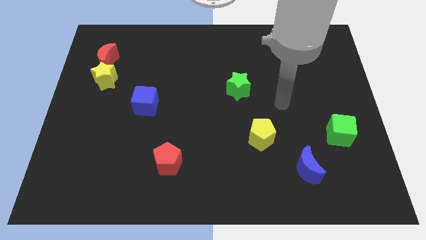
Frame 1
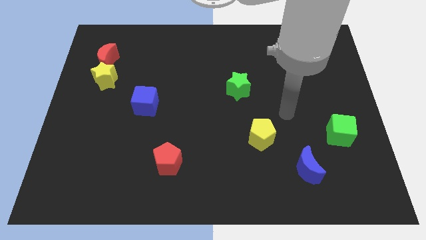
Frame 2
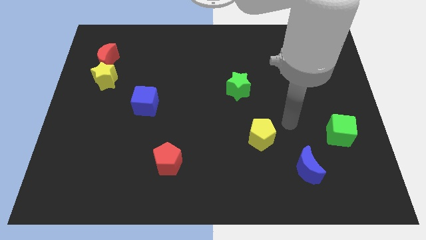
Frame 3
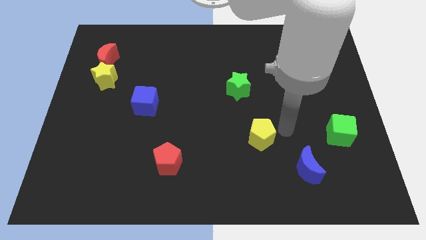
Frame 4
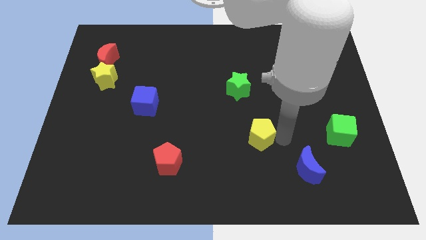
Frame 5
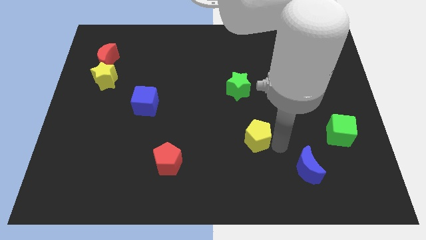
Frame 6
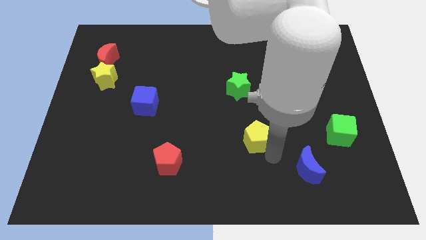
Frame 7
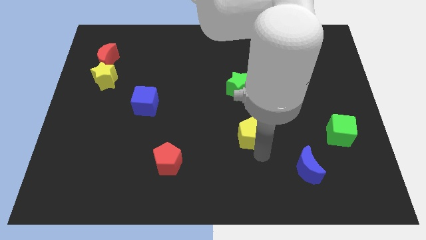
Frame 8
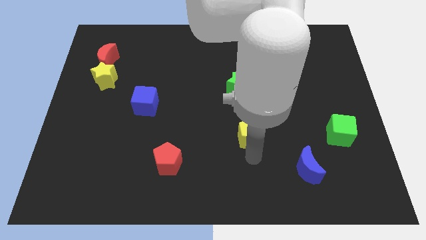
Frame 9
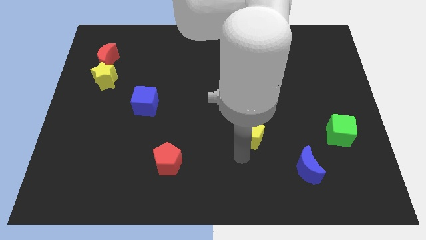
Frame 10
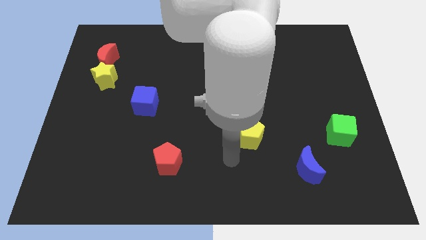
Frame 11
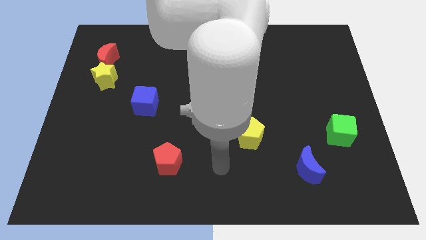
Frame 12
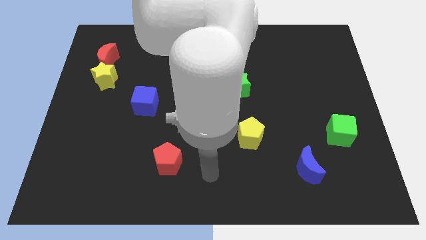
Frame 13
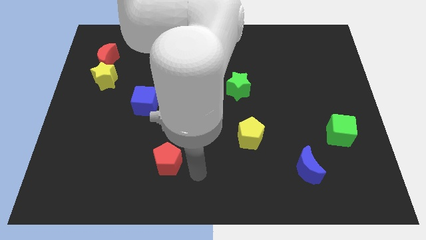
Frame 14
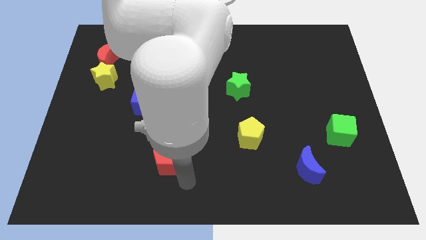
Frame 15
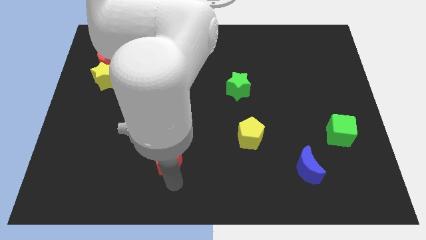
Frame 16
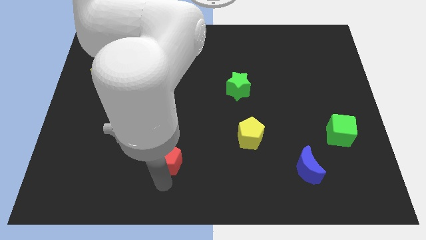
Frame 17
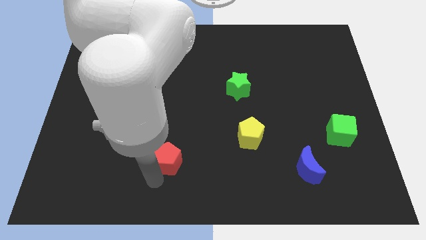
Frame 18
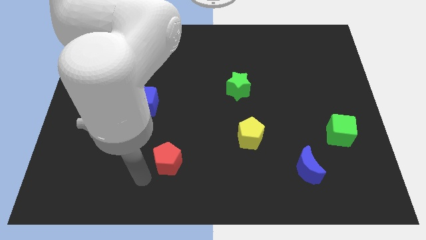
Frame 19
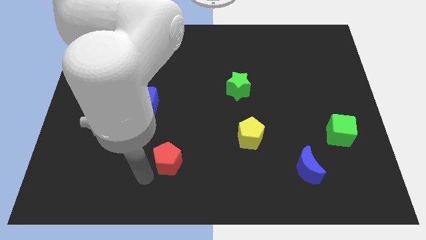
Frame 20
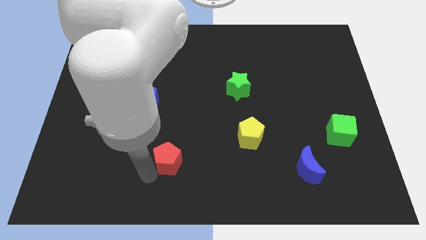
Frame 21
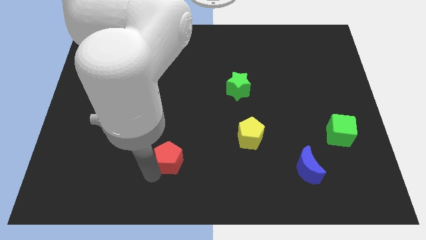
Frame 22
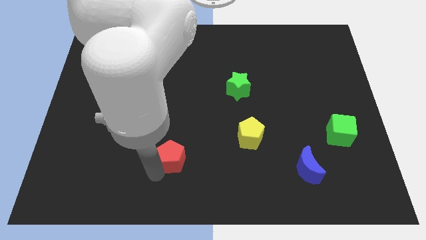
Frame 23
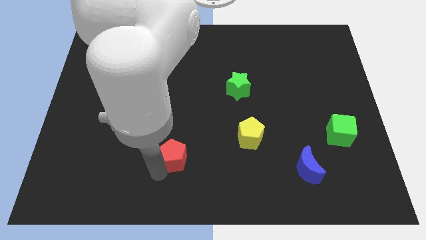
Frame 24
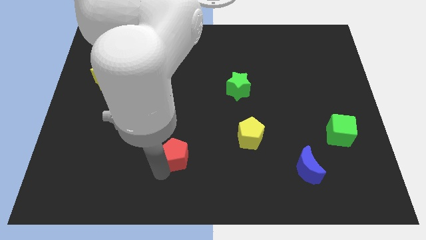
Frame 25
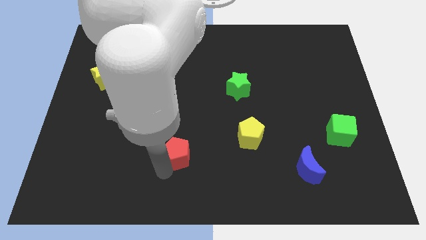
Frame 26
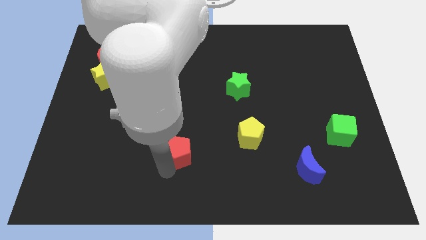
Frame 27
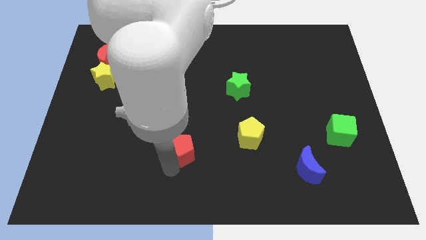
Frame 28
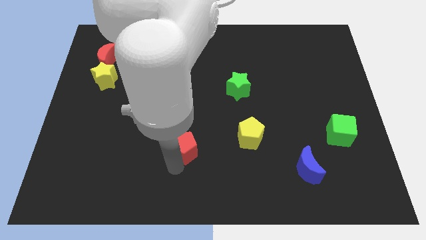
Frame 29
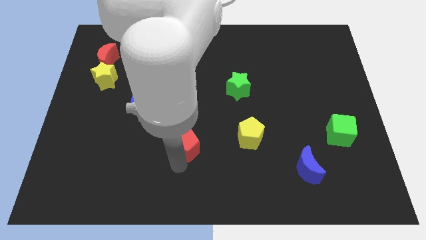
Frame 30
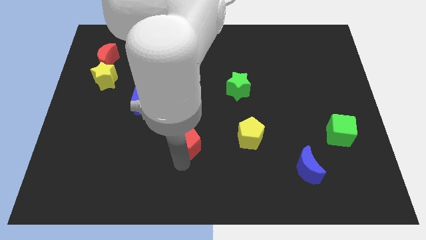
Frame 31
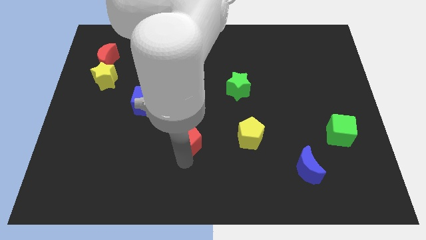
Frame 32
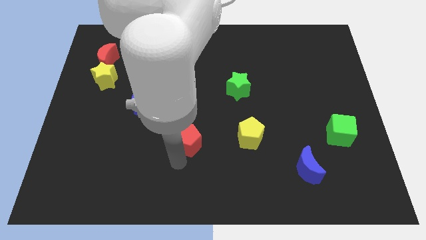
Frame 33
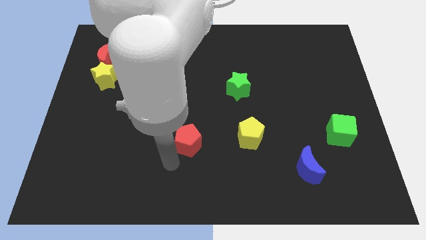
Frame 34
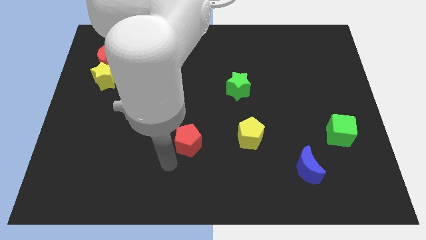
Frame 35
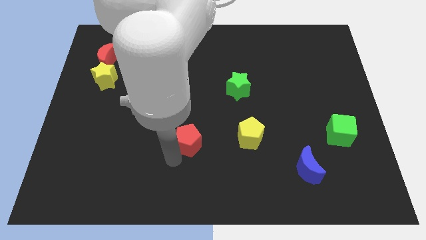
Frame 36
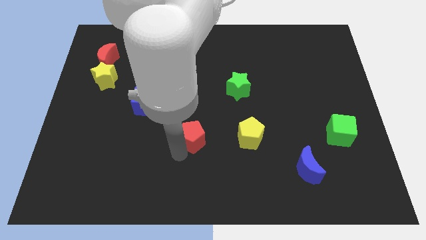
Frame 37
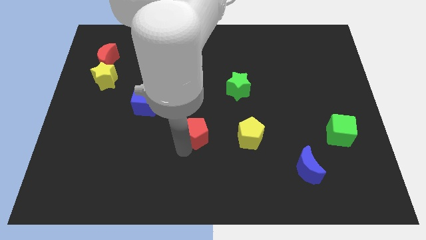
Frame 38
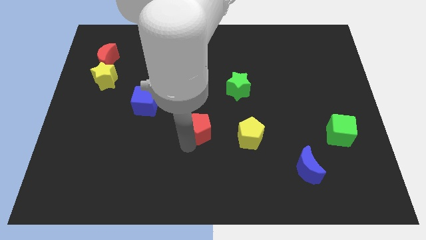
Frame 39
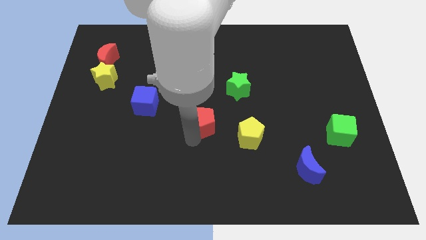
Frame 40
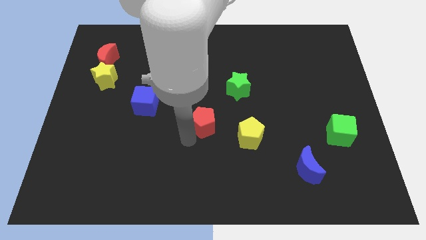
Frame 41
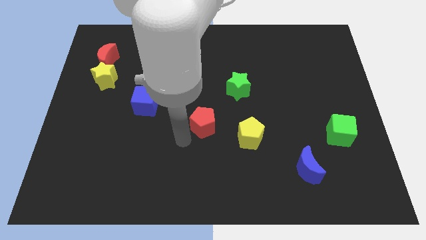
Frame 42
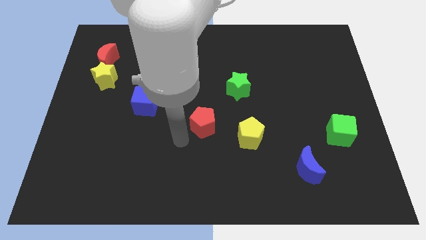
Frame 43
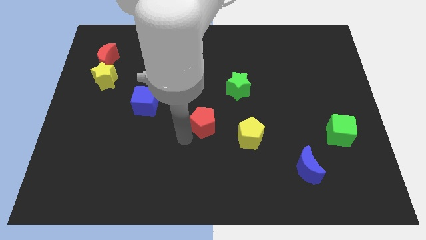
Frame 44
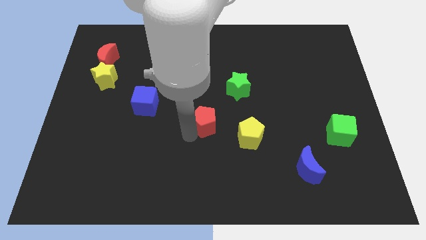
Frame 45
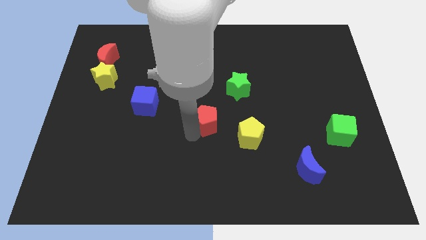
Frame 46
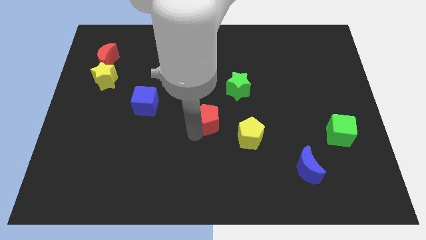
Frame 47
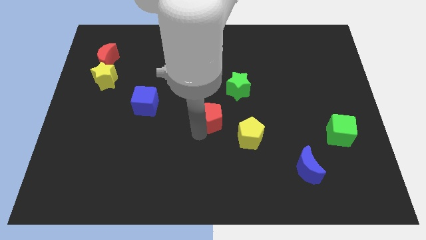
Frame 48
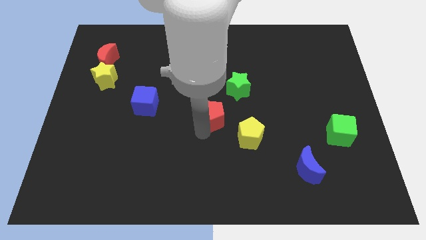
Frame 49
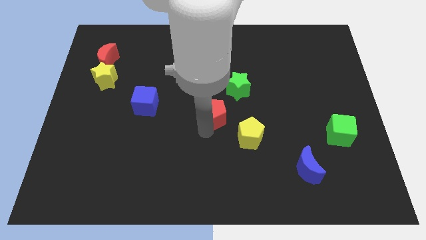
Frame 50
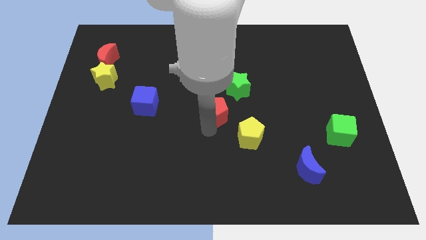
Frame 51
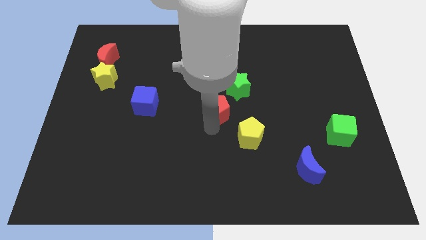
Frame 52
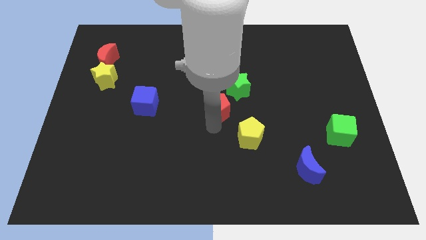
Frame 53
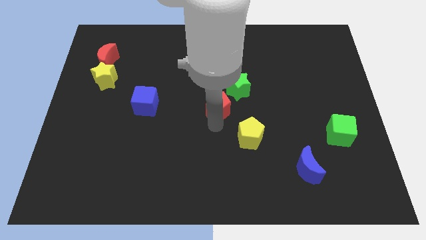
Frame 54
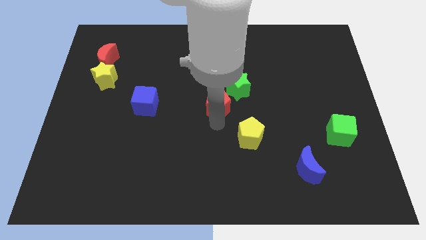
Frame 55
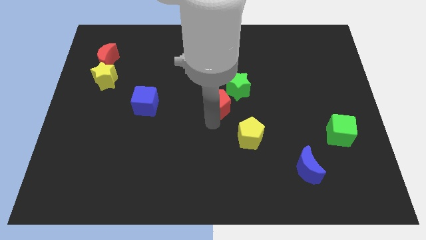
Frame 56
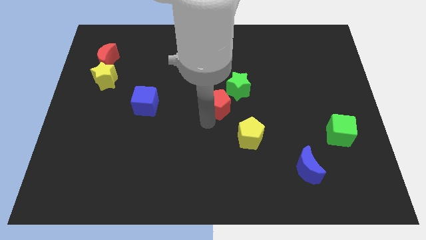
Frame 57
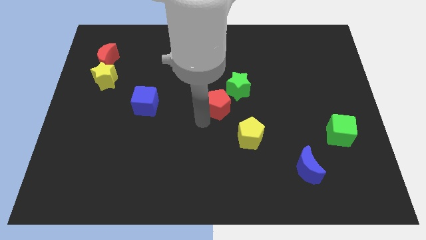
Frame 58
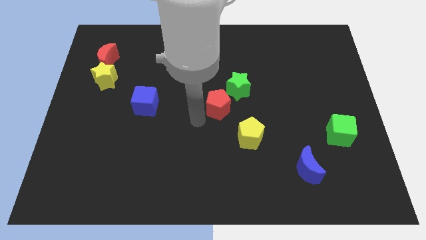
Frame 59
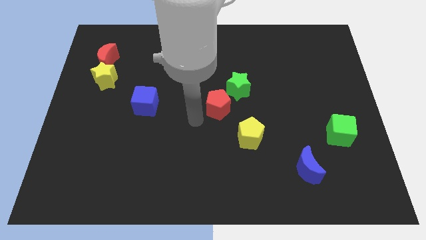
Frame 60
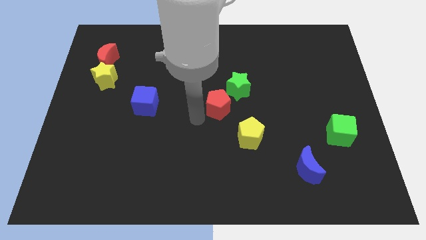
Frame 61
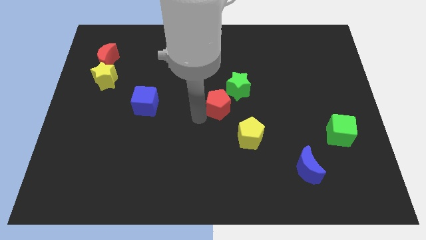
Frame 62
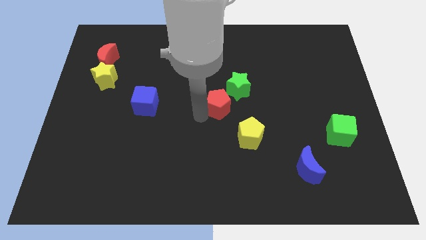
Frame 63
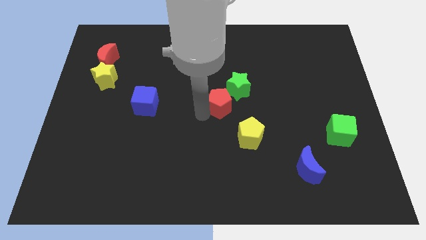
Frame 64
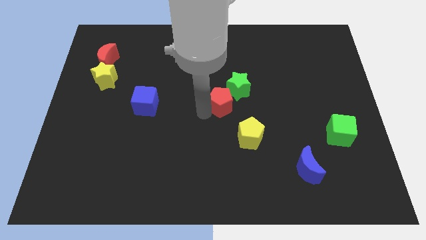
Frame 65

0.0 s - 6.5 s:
move the red pentagon next to the green star

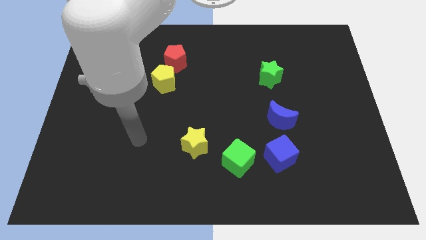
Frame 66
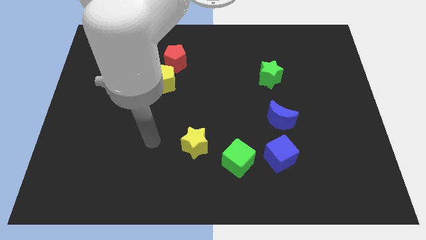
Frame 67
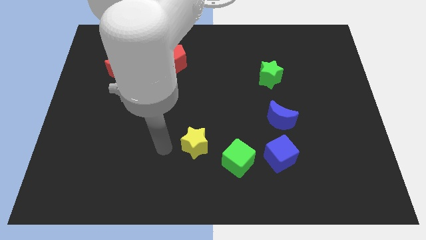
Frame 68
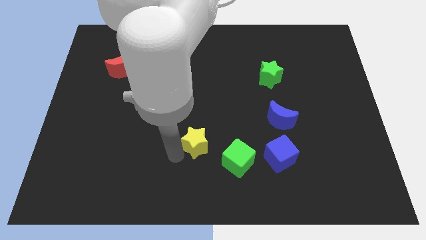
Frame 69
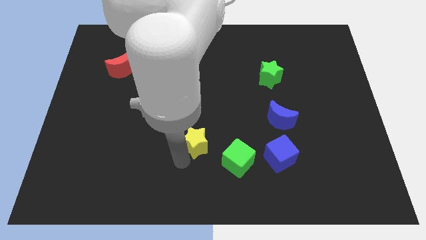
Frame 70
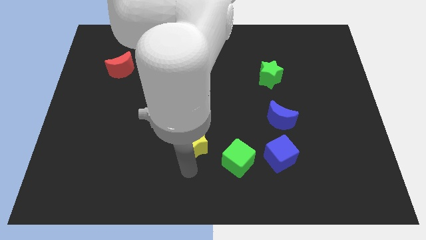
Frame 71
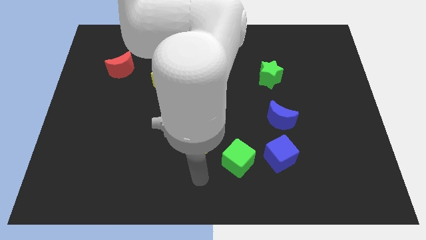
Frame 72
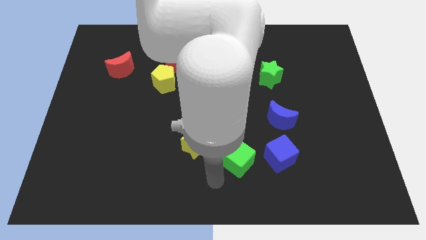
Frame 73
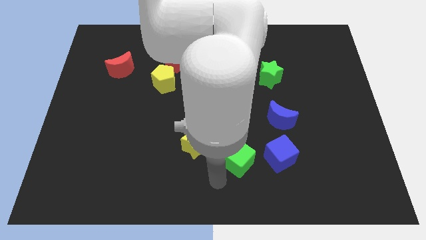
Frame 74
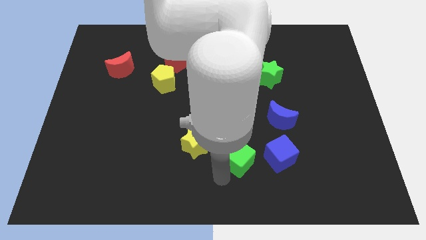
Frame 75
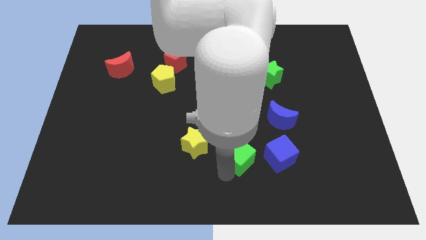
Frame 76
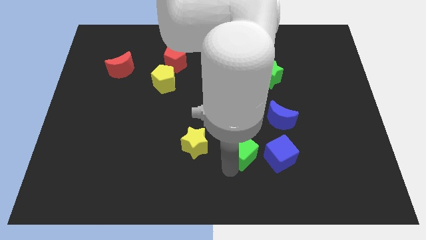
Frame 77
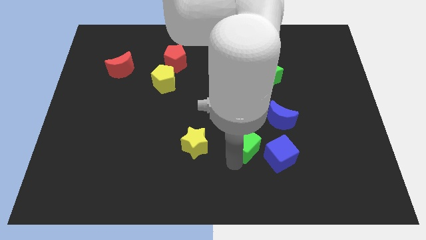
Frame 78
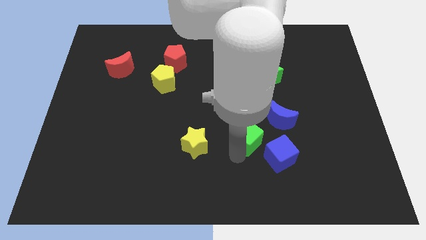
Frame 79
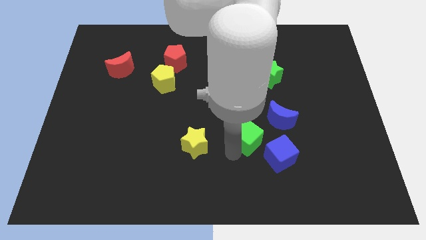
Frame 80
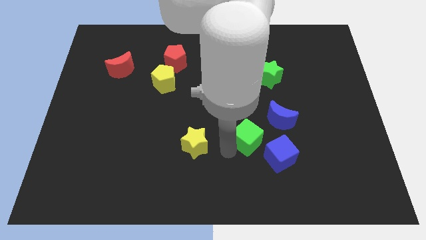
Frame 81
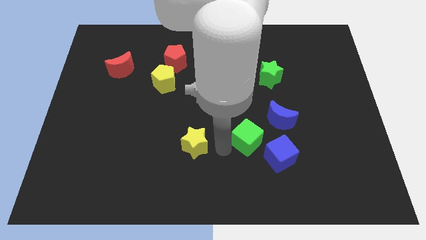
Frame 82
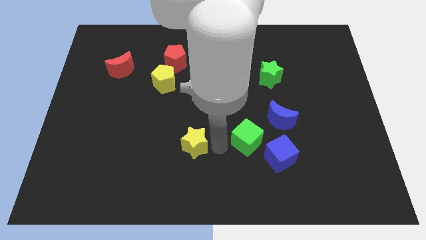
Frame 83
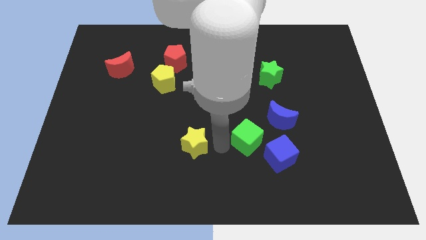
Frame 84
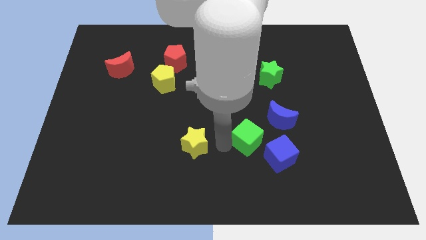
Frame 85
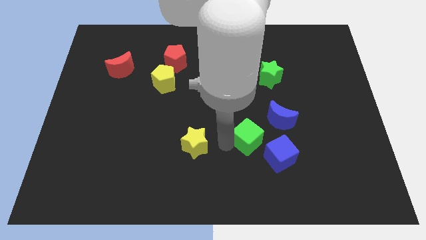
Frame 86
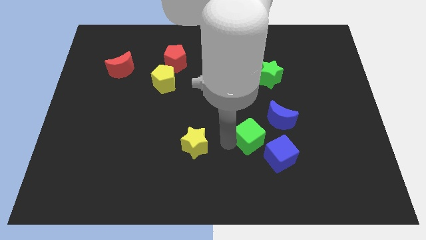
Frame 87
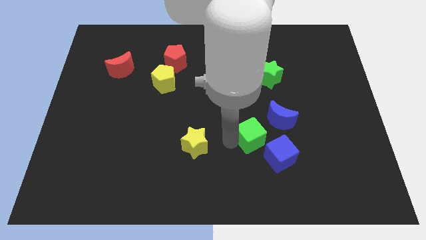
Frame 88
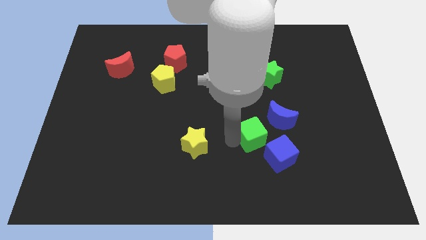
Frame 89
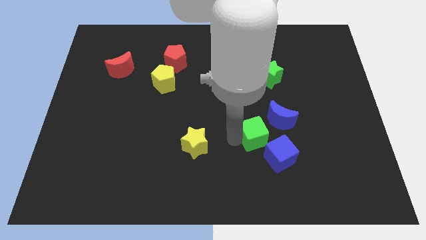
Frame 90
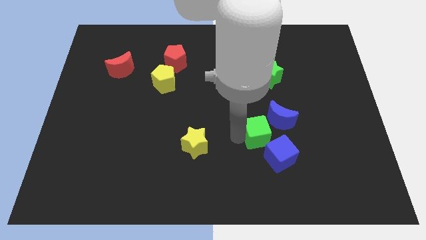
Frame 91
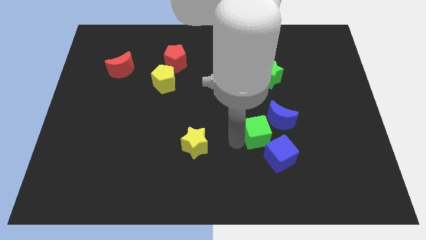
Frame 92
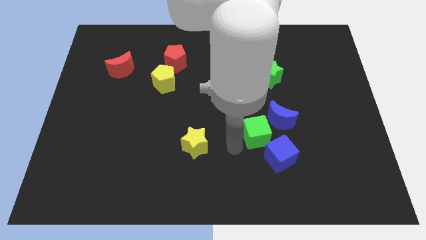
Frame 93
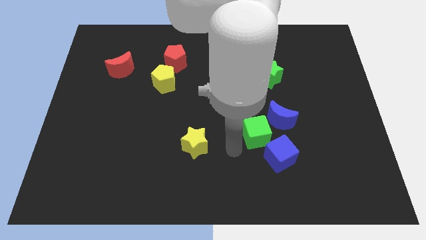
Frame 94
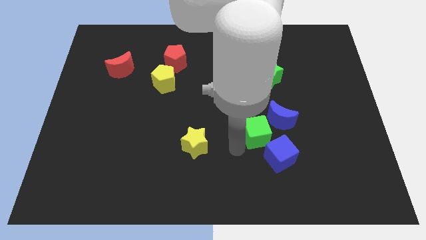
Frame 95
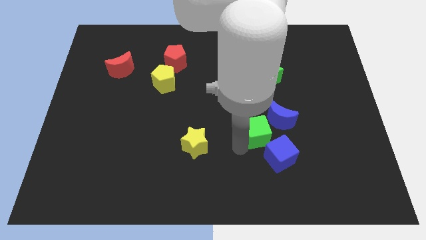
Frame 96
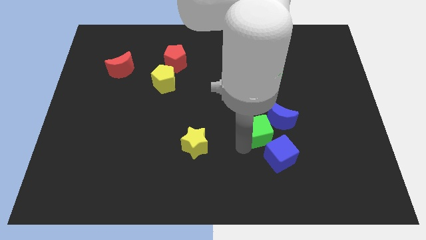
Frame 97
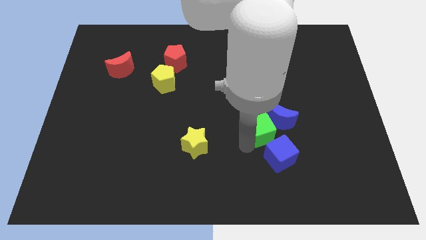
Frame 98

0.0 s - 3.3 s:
move the green cube to the blue moon
